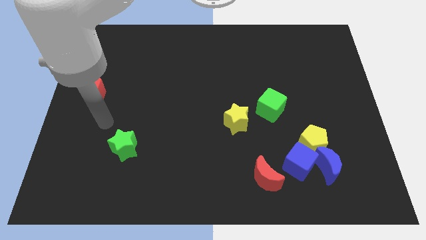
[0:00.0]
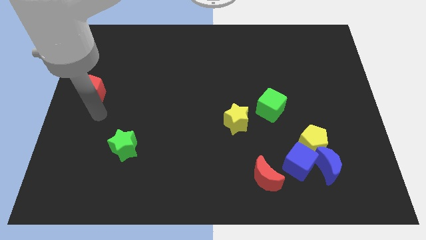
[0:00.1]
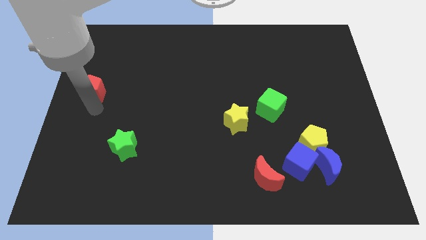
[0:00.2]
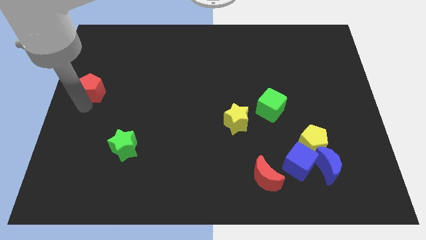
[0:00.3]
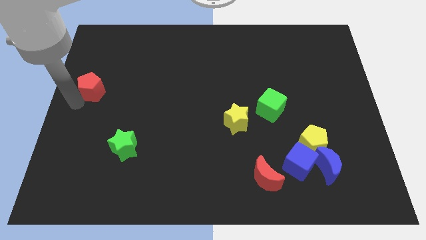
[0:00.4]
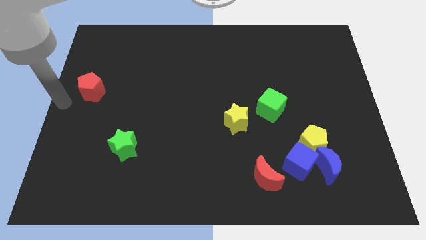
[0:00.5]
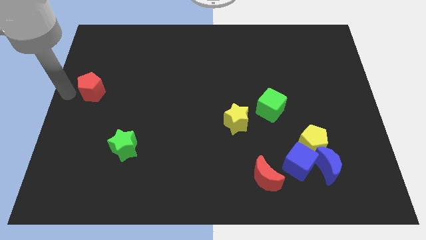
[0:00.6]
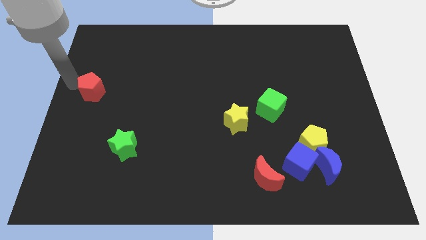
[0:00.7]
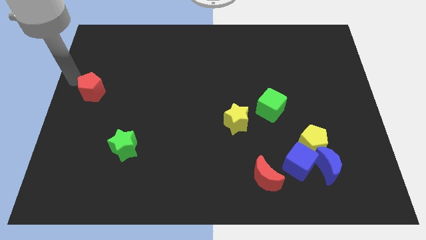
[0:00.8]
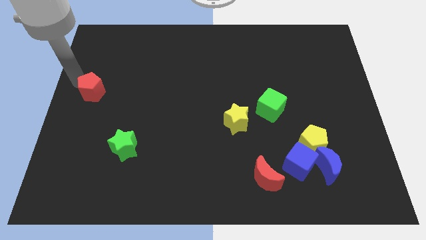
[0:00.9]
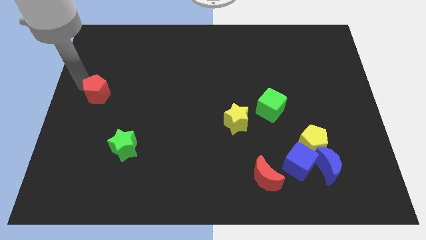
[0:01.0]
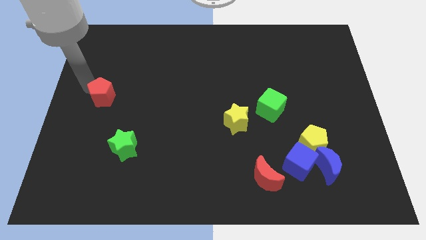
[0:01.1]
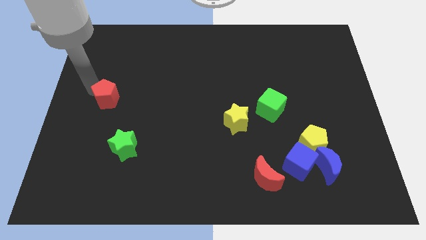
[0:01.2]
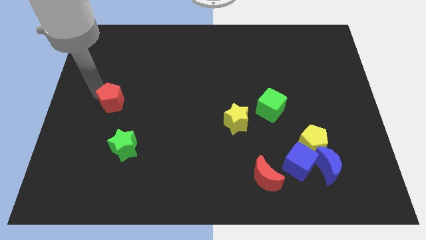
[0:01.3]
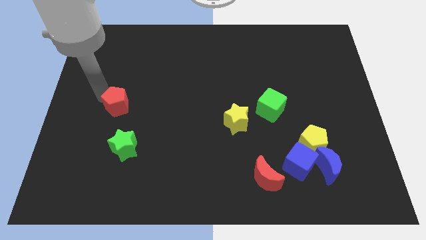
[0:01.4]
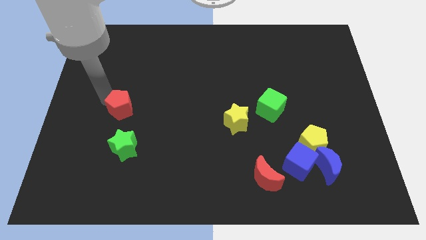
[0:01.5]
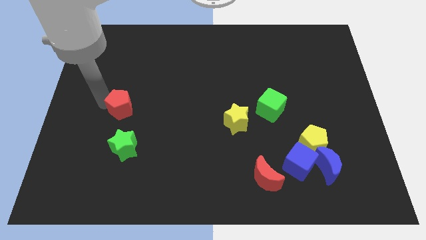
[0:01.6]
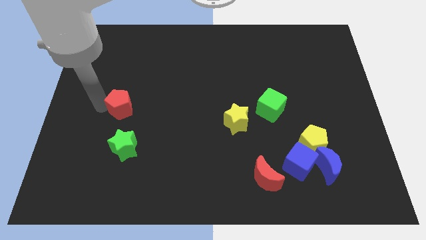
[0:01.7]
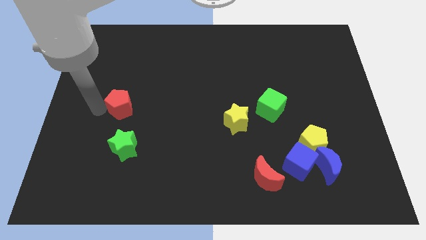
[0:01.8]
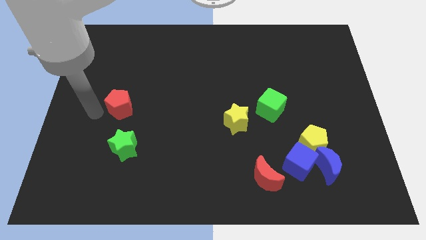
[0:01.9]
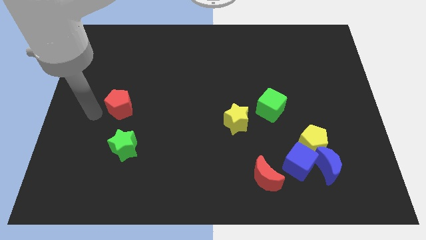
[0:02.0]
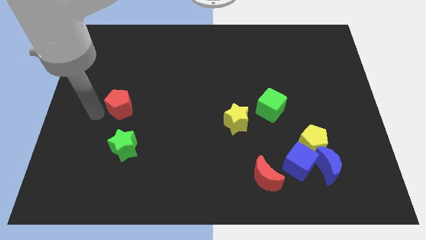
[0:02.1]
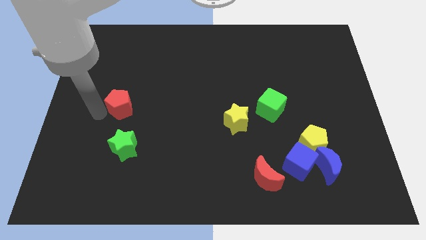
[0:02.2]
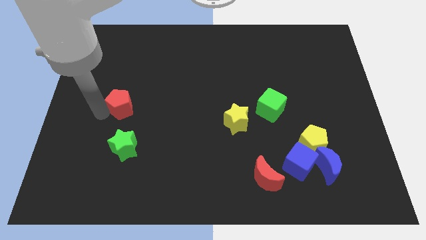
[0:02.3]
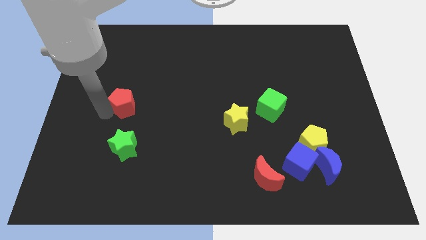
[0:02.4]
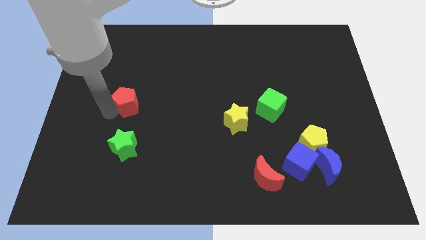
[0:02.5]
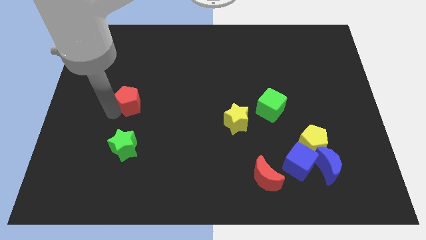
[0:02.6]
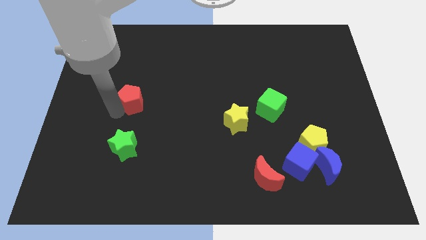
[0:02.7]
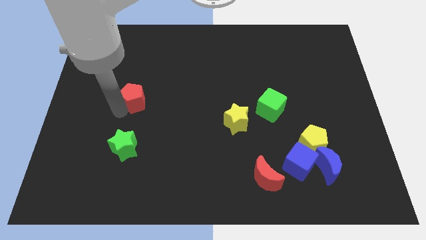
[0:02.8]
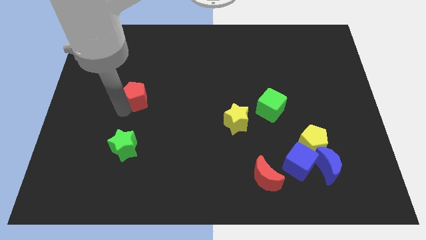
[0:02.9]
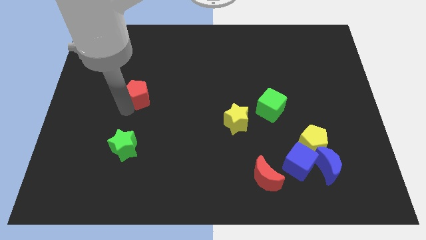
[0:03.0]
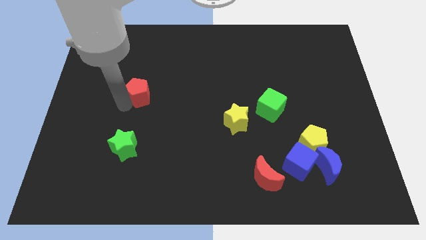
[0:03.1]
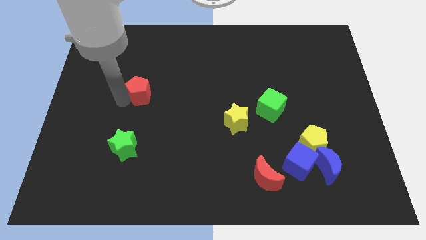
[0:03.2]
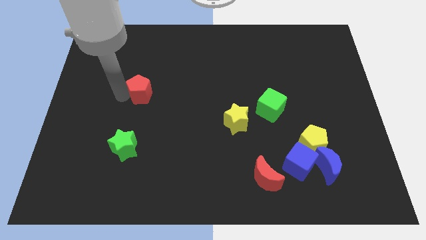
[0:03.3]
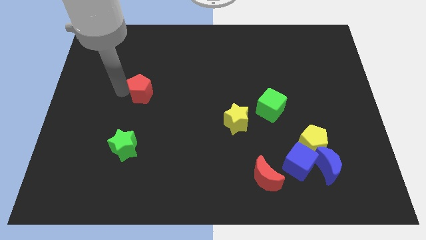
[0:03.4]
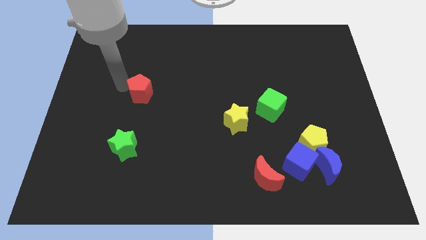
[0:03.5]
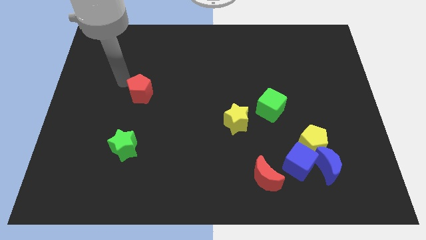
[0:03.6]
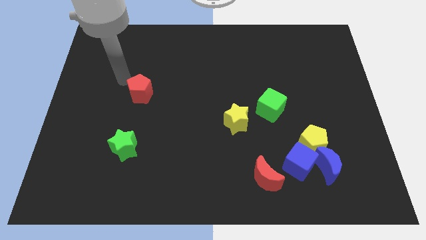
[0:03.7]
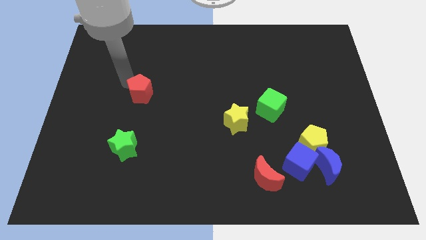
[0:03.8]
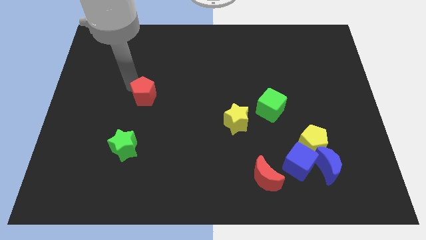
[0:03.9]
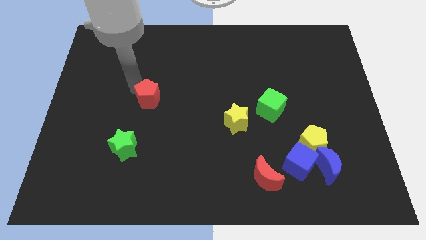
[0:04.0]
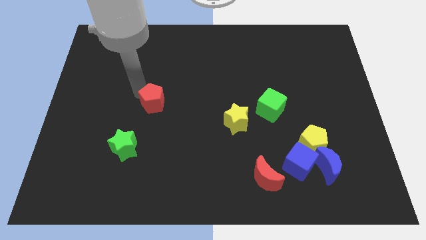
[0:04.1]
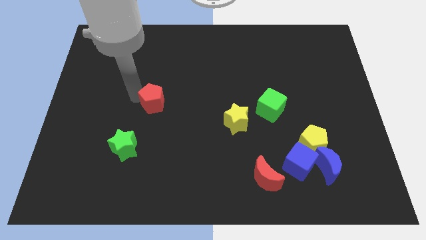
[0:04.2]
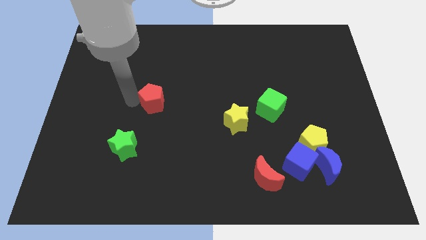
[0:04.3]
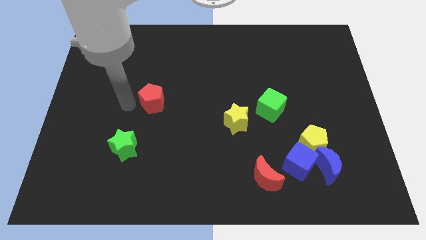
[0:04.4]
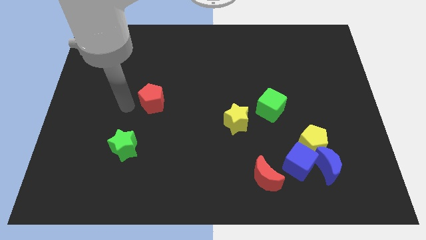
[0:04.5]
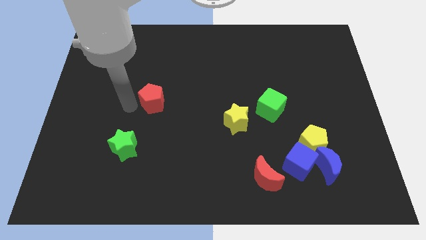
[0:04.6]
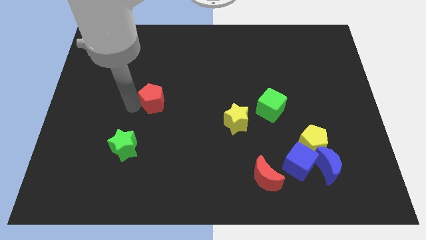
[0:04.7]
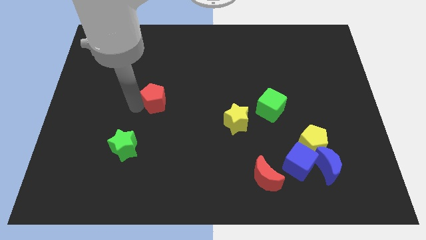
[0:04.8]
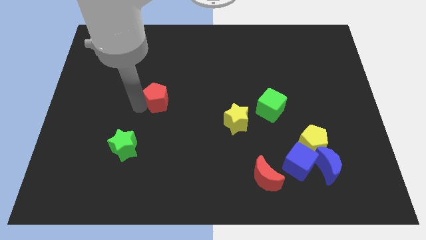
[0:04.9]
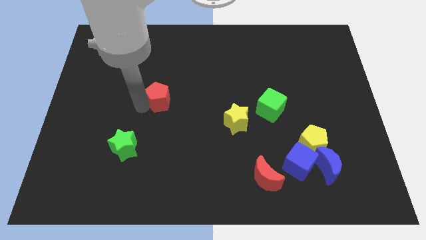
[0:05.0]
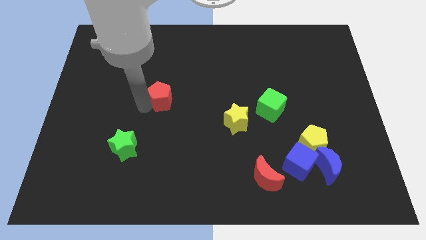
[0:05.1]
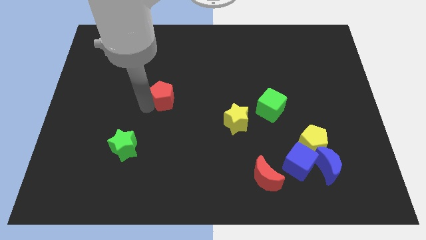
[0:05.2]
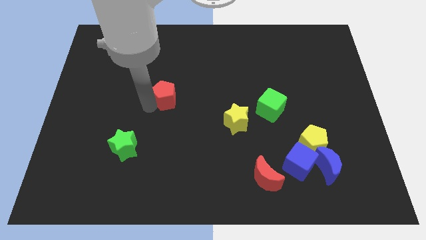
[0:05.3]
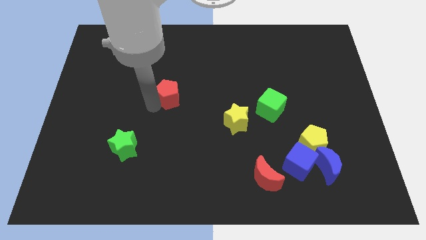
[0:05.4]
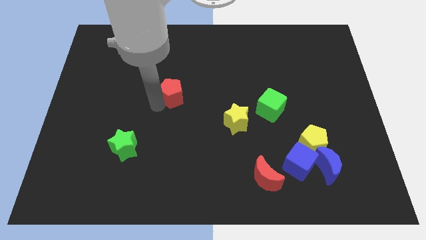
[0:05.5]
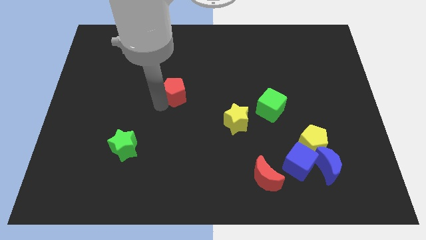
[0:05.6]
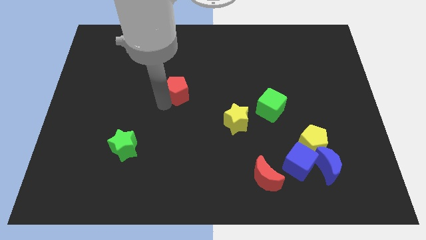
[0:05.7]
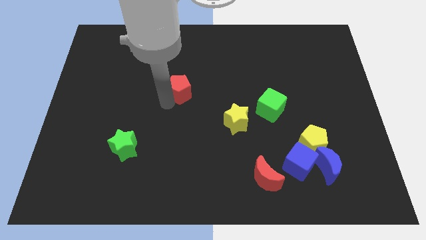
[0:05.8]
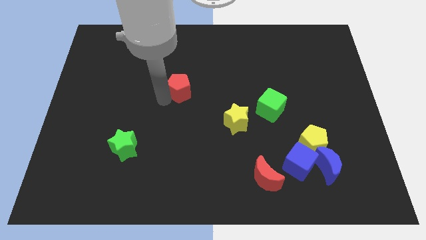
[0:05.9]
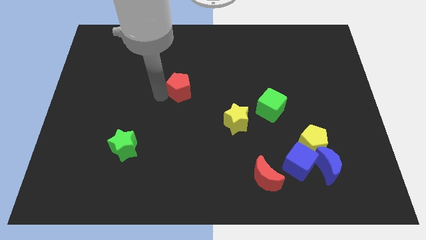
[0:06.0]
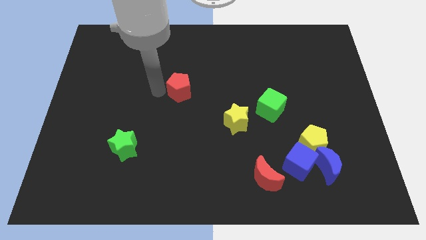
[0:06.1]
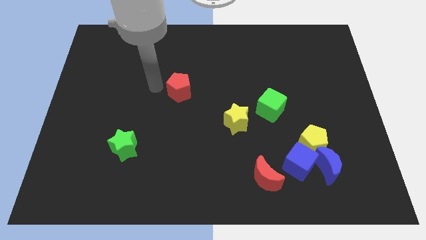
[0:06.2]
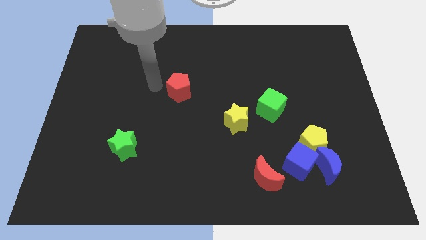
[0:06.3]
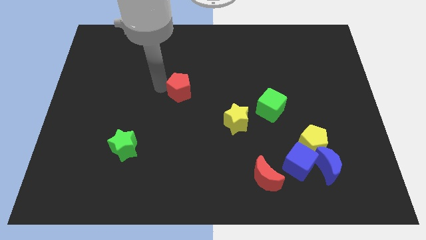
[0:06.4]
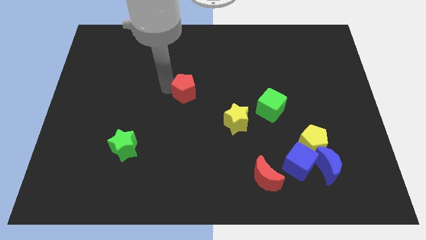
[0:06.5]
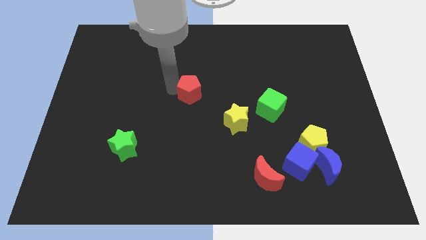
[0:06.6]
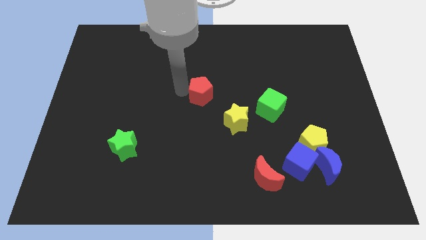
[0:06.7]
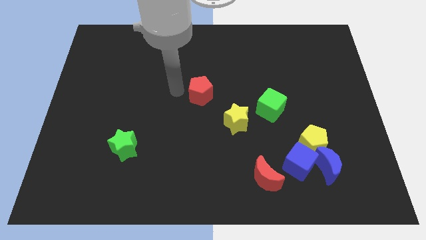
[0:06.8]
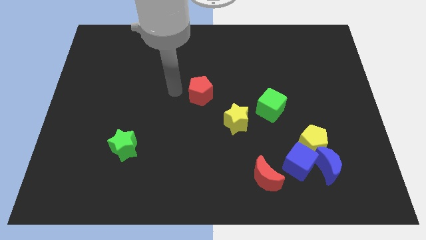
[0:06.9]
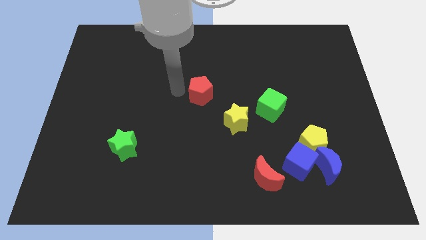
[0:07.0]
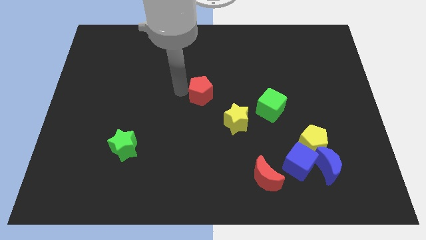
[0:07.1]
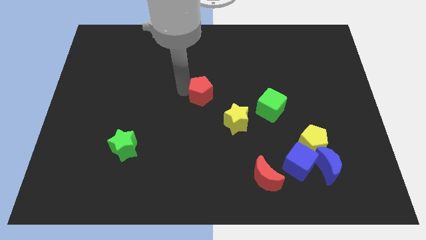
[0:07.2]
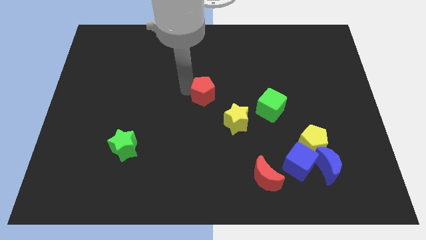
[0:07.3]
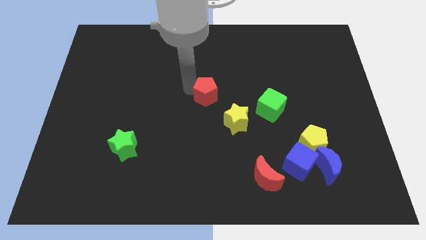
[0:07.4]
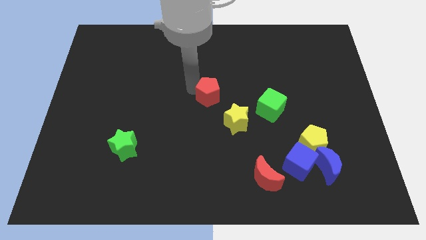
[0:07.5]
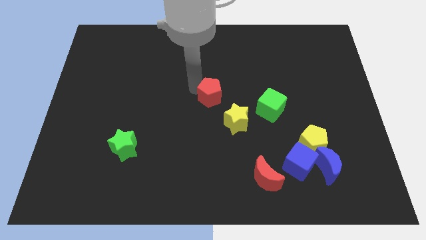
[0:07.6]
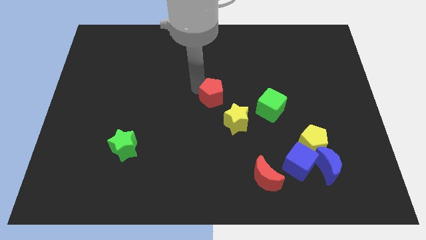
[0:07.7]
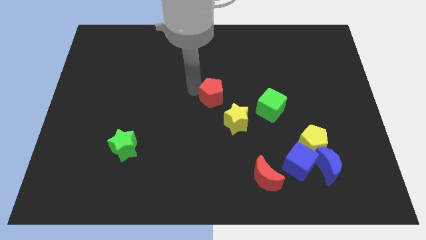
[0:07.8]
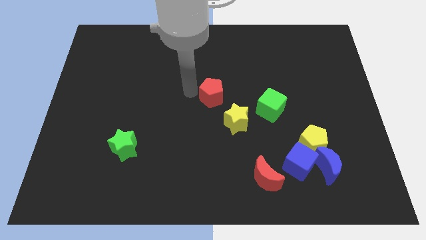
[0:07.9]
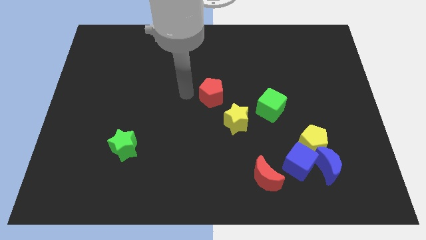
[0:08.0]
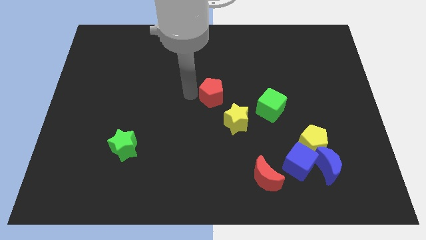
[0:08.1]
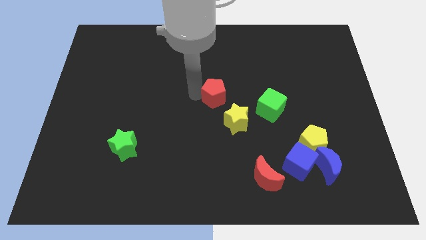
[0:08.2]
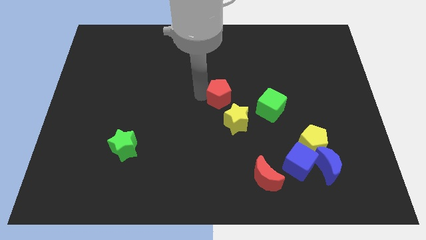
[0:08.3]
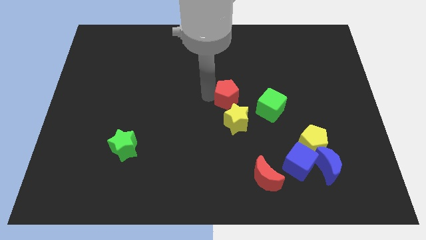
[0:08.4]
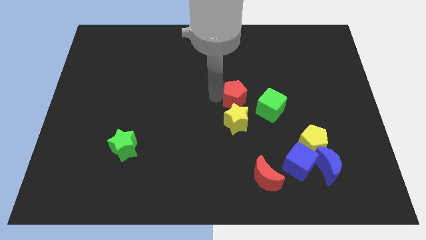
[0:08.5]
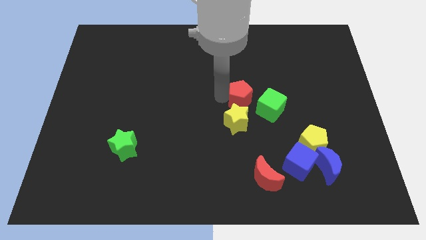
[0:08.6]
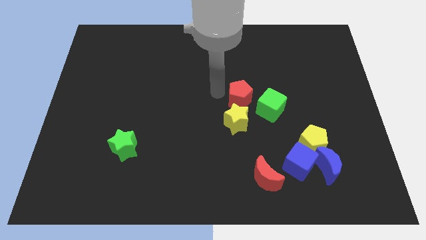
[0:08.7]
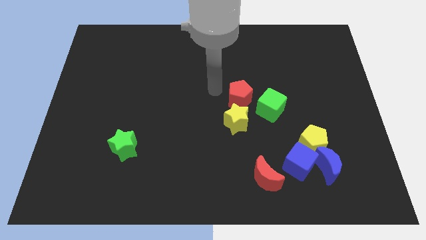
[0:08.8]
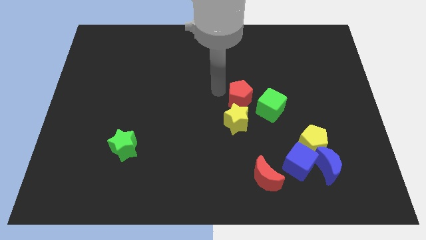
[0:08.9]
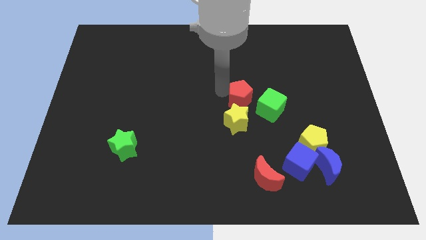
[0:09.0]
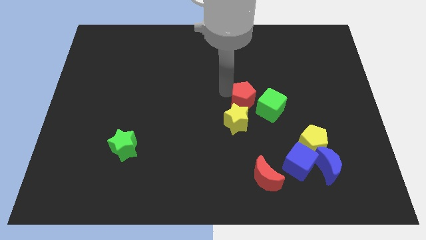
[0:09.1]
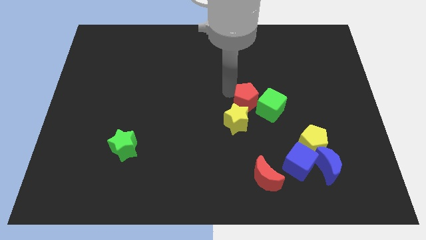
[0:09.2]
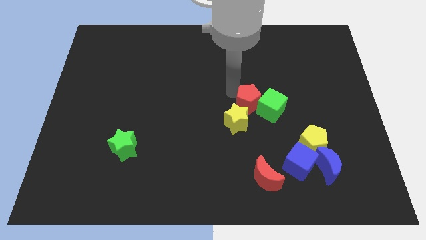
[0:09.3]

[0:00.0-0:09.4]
put the red pentagon to the green cube
